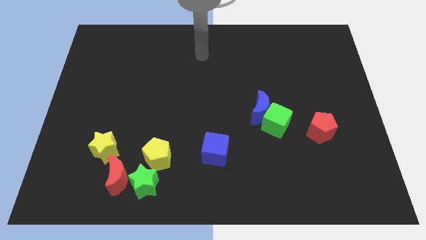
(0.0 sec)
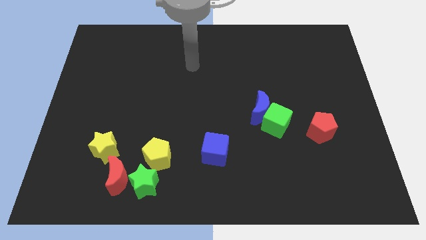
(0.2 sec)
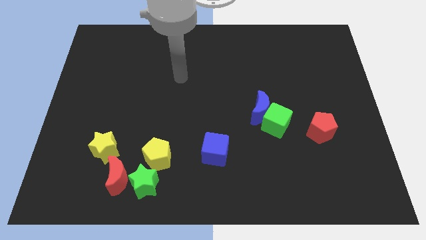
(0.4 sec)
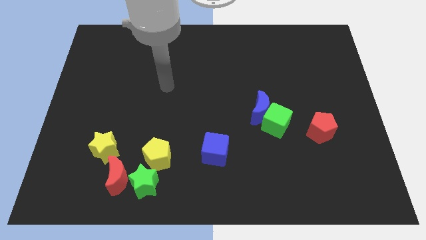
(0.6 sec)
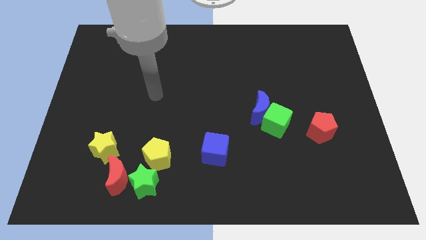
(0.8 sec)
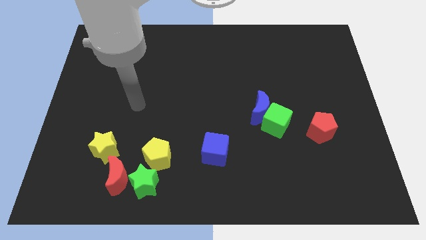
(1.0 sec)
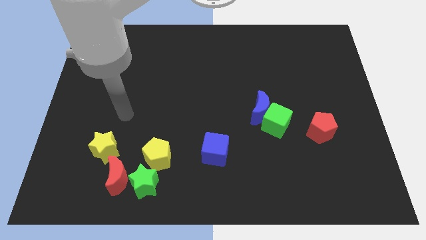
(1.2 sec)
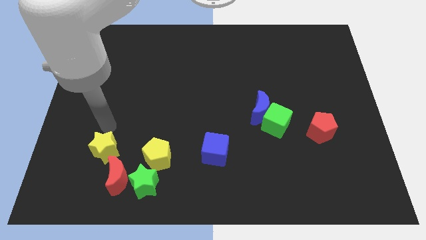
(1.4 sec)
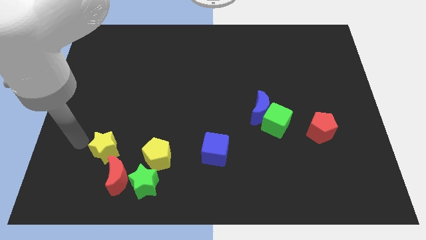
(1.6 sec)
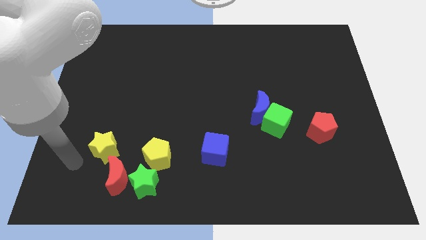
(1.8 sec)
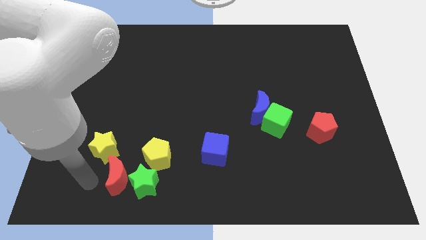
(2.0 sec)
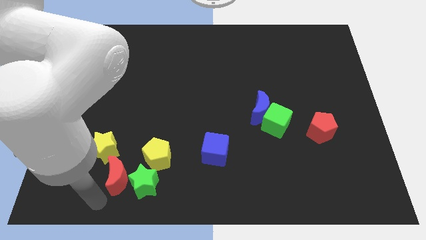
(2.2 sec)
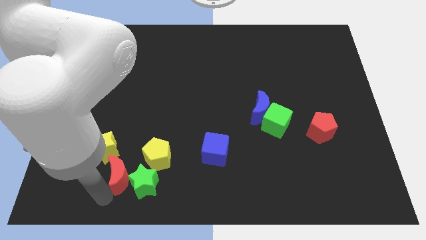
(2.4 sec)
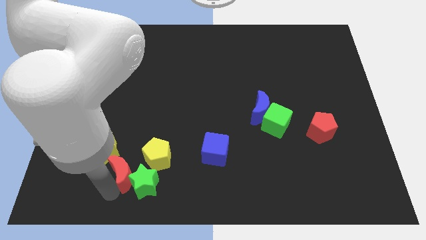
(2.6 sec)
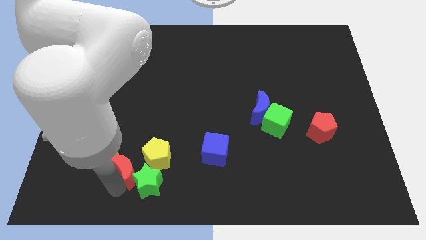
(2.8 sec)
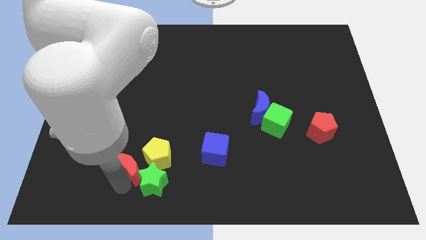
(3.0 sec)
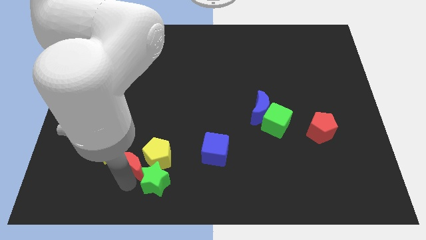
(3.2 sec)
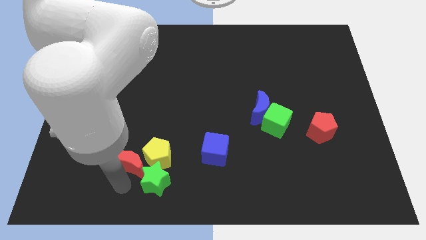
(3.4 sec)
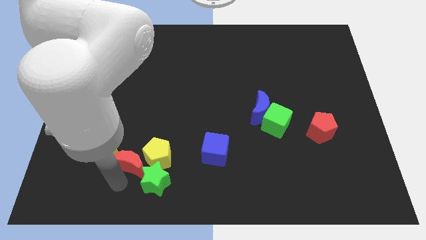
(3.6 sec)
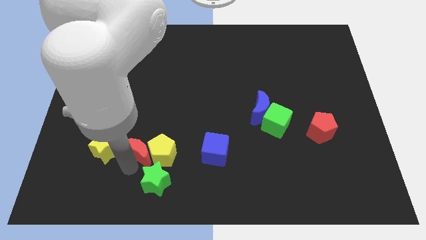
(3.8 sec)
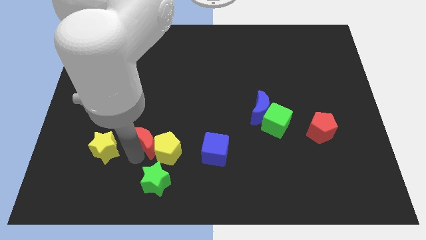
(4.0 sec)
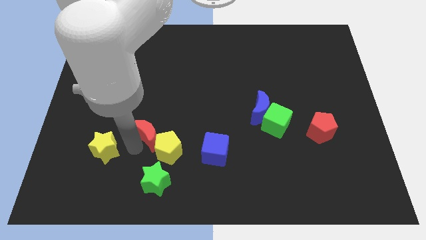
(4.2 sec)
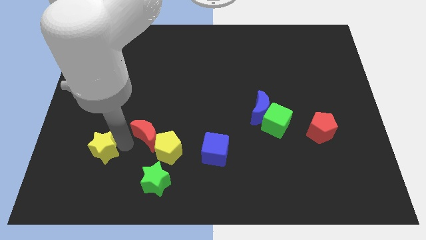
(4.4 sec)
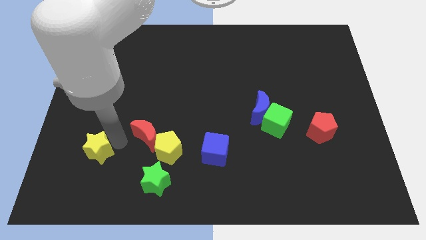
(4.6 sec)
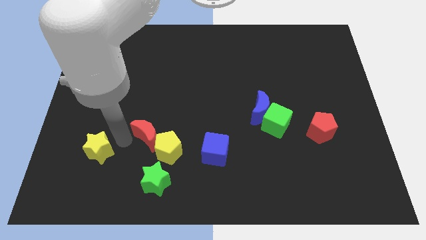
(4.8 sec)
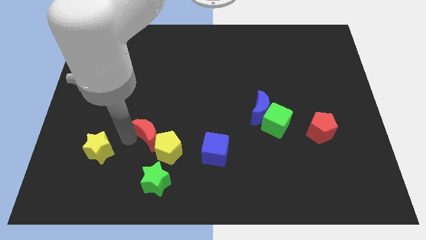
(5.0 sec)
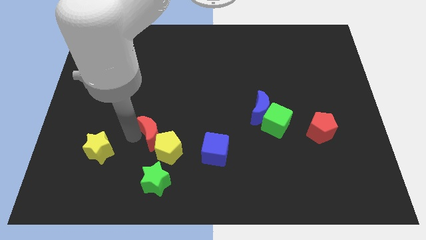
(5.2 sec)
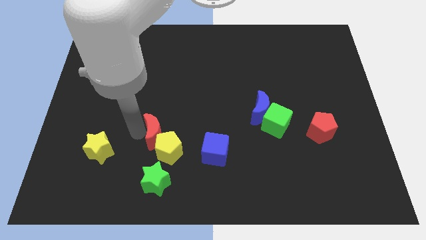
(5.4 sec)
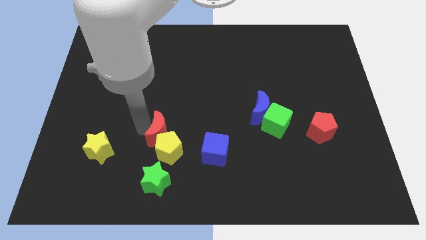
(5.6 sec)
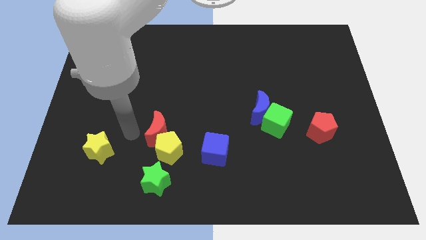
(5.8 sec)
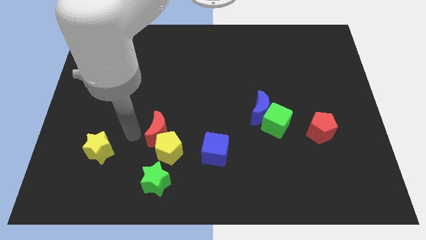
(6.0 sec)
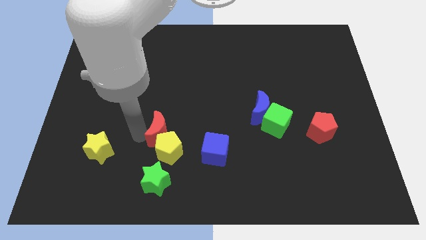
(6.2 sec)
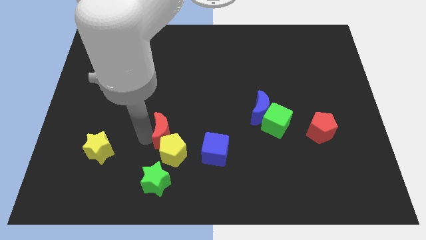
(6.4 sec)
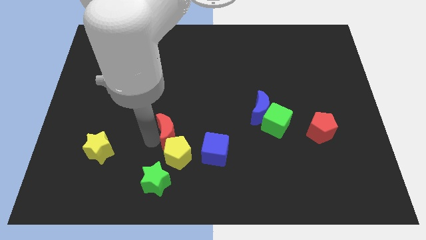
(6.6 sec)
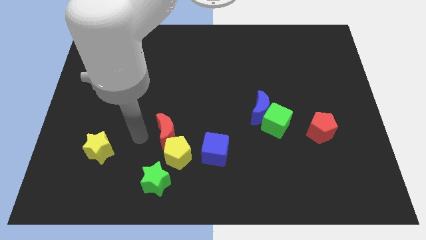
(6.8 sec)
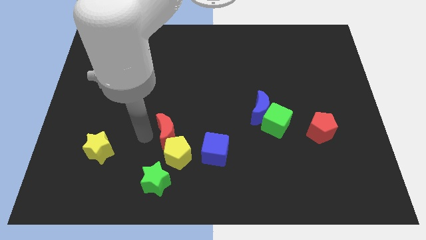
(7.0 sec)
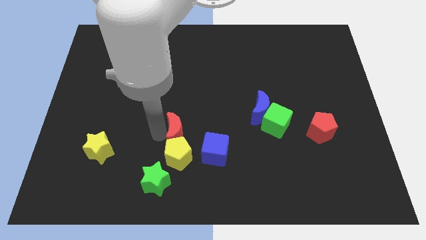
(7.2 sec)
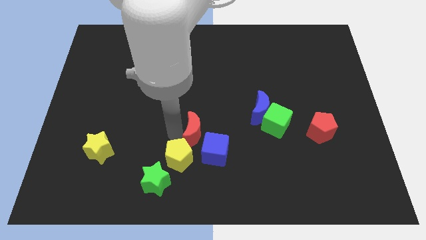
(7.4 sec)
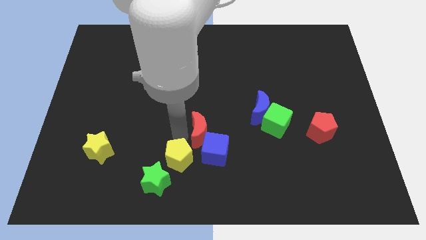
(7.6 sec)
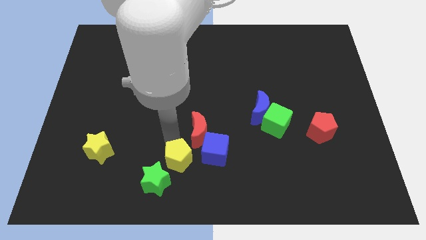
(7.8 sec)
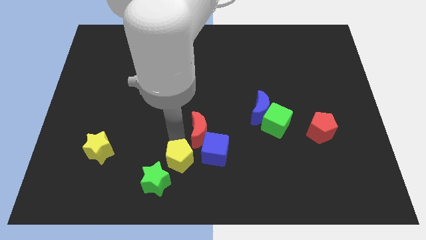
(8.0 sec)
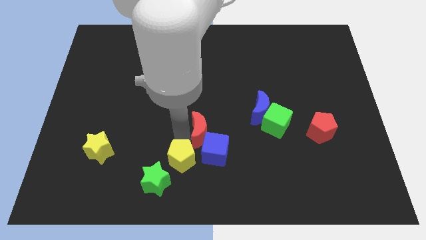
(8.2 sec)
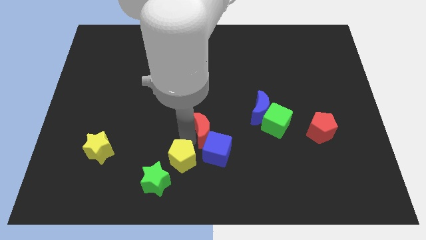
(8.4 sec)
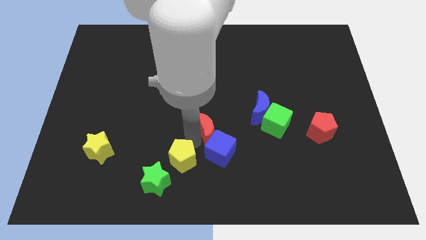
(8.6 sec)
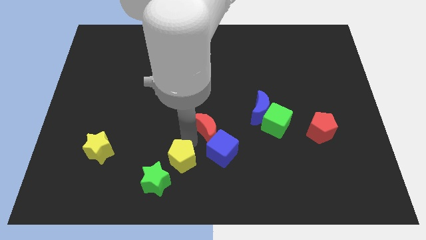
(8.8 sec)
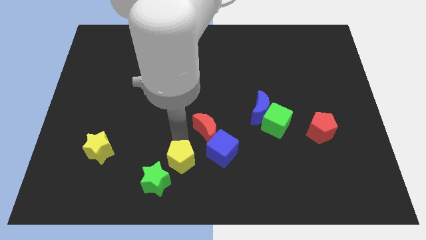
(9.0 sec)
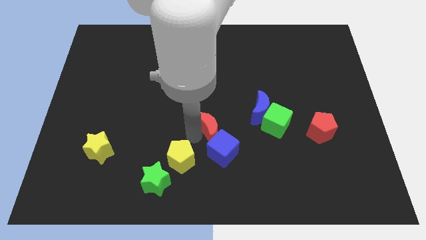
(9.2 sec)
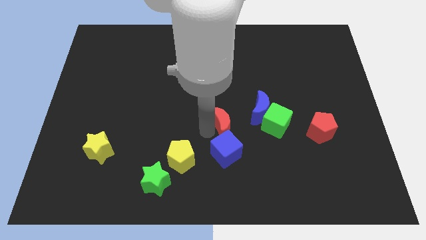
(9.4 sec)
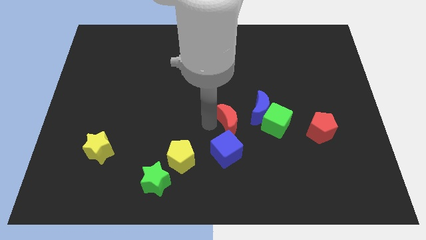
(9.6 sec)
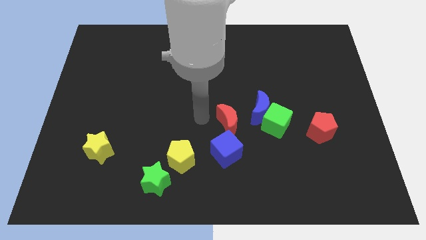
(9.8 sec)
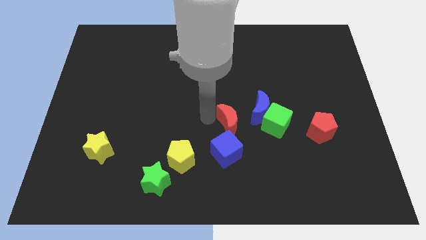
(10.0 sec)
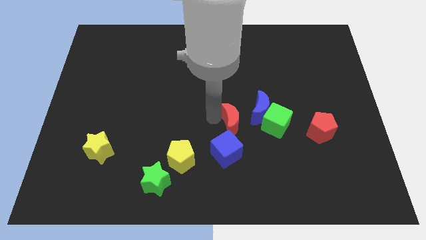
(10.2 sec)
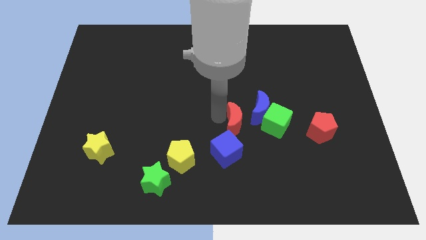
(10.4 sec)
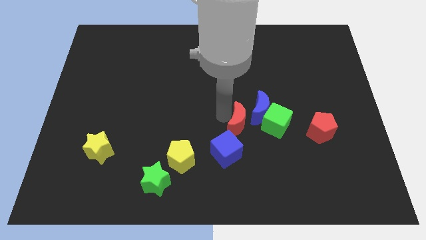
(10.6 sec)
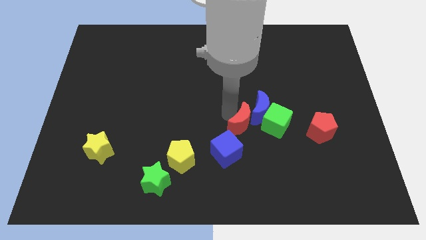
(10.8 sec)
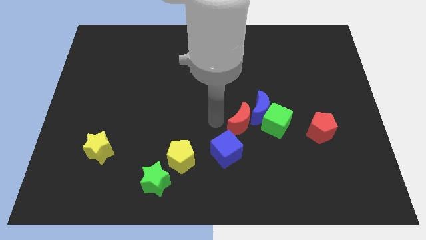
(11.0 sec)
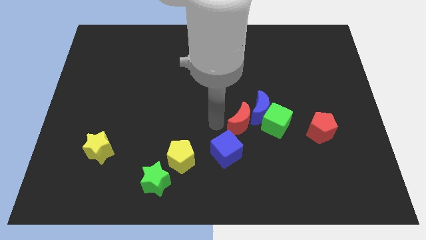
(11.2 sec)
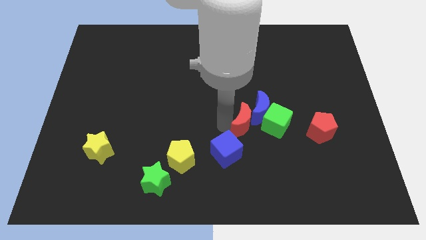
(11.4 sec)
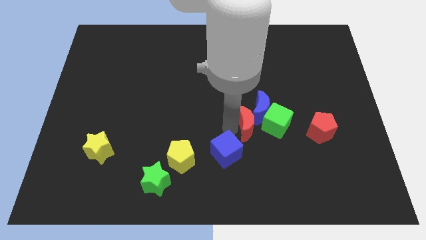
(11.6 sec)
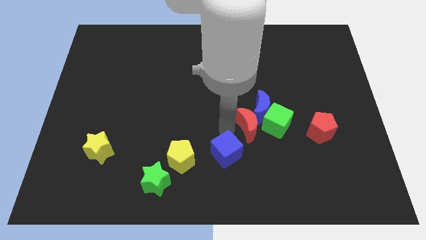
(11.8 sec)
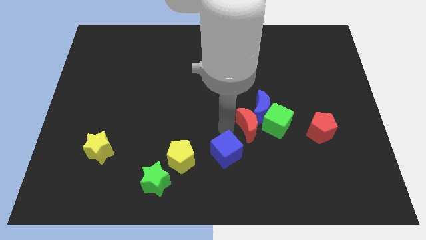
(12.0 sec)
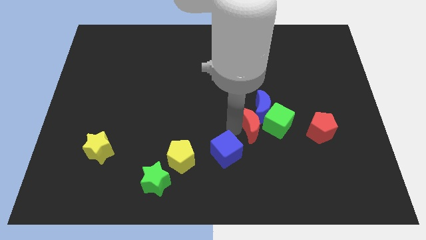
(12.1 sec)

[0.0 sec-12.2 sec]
slide the red moon towards the green cube

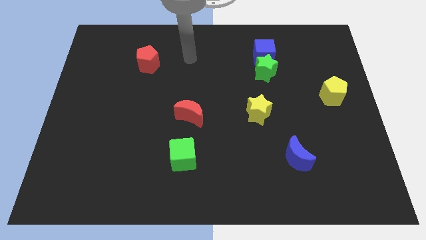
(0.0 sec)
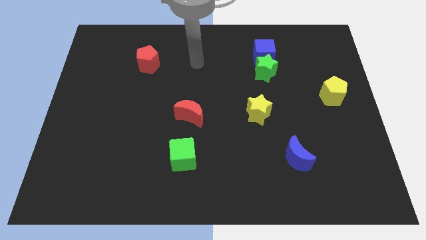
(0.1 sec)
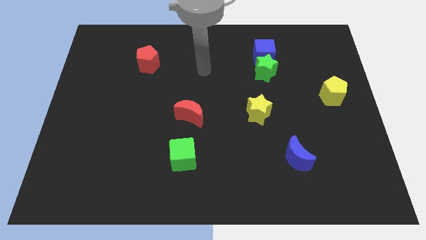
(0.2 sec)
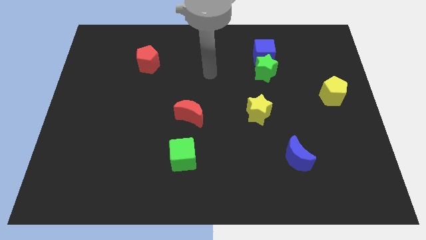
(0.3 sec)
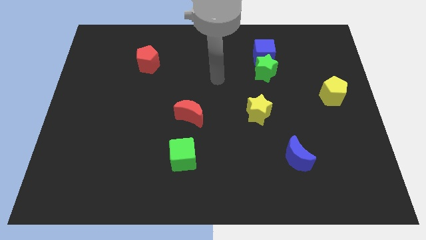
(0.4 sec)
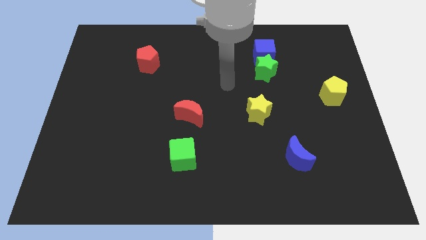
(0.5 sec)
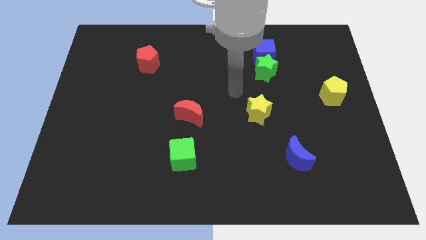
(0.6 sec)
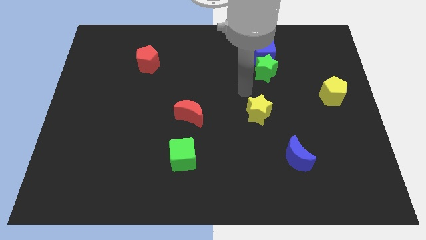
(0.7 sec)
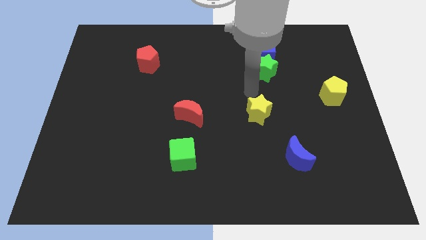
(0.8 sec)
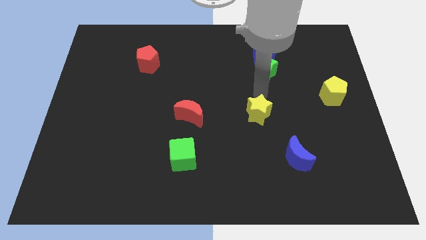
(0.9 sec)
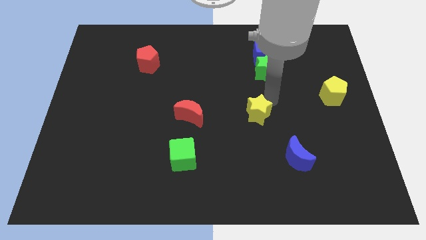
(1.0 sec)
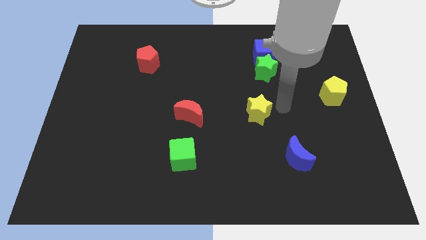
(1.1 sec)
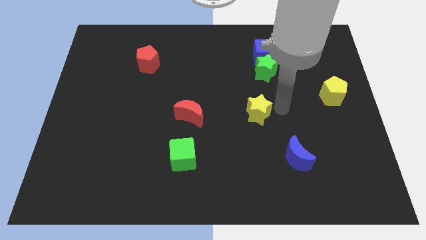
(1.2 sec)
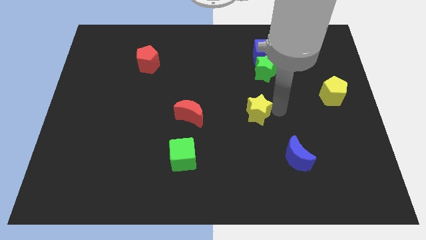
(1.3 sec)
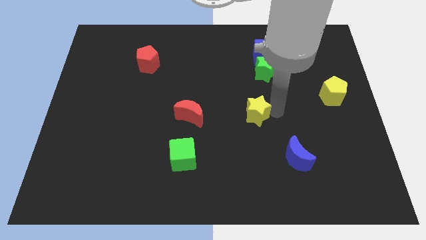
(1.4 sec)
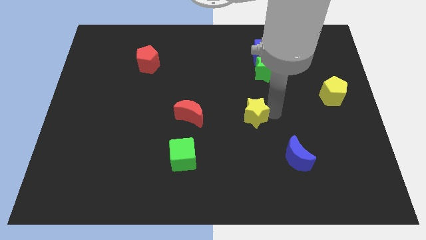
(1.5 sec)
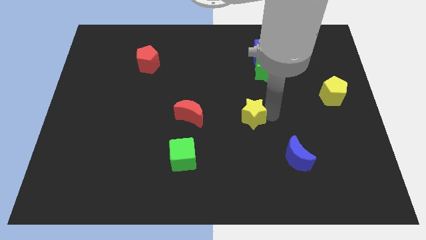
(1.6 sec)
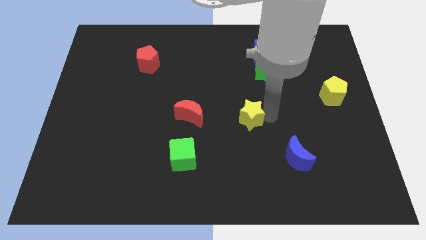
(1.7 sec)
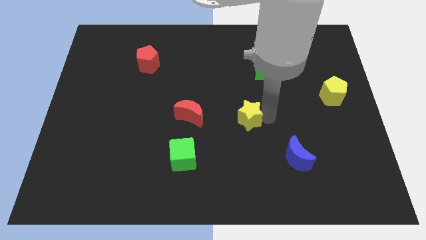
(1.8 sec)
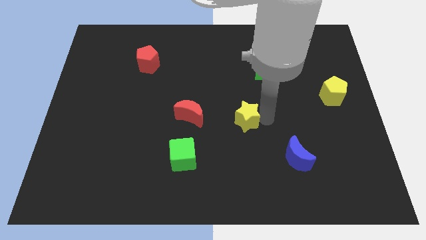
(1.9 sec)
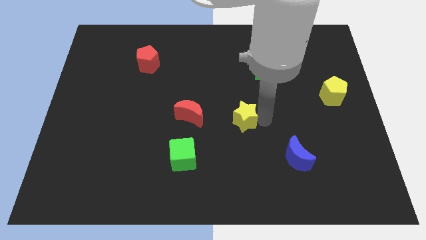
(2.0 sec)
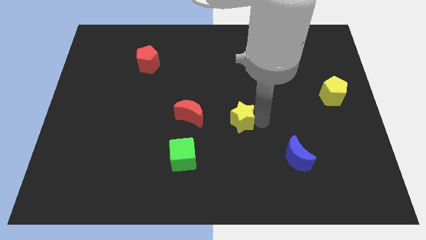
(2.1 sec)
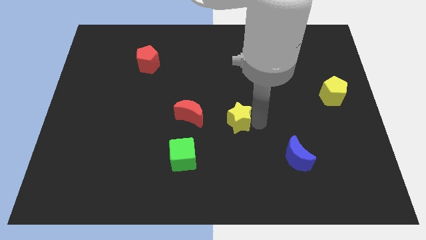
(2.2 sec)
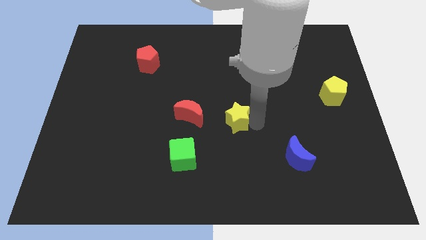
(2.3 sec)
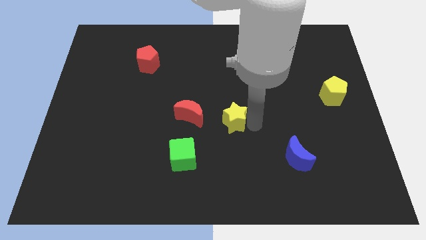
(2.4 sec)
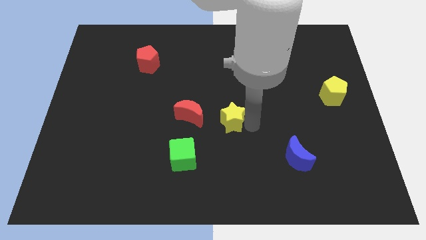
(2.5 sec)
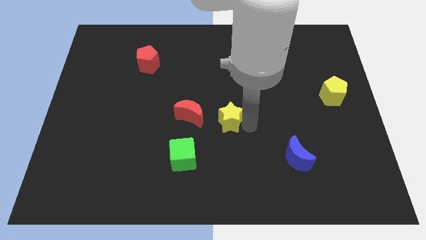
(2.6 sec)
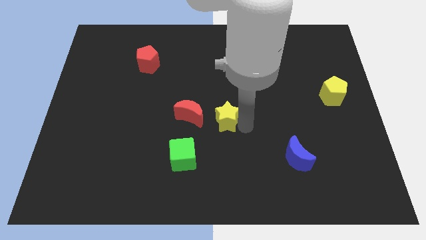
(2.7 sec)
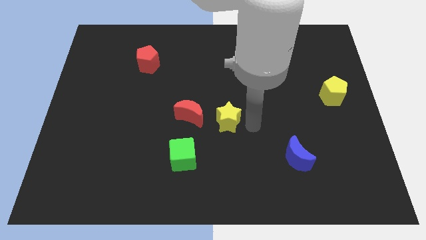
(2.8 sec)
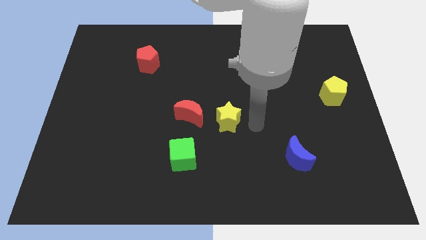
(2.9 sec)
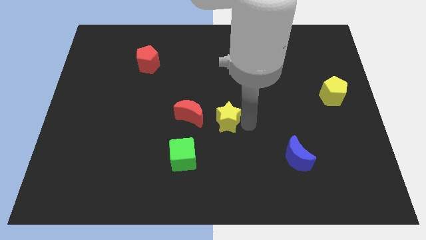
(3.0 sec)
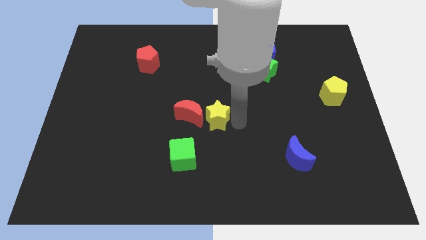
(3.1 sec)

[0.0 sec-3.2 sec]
move the yellow star close to the red moon
